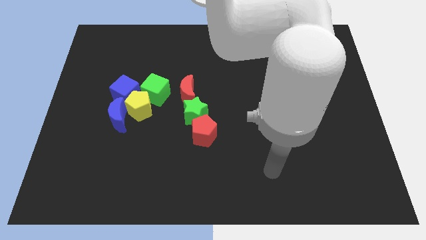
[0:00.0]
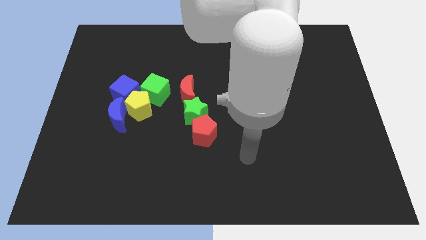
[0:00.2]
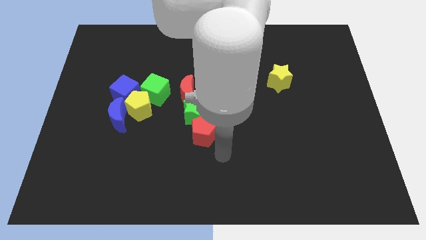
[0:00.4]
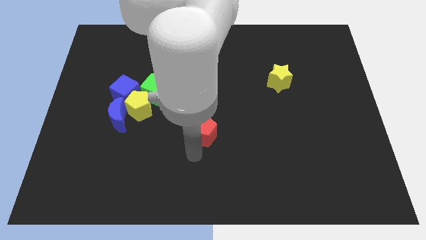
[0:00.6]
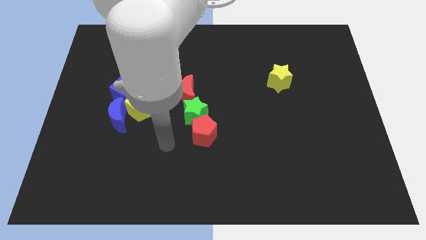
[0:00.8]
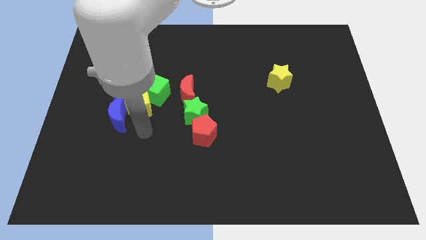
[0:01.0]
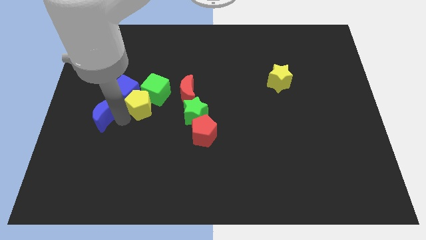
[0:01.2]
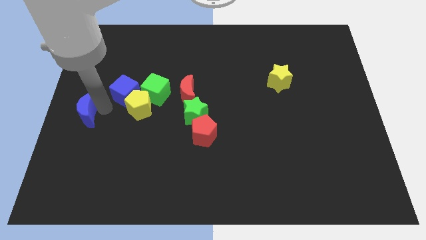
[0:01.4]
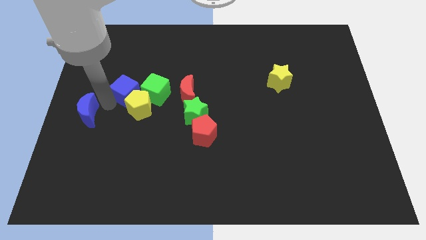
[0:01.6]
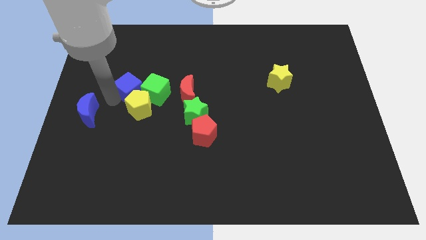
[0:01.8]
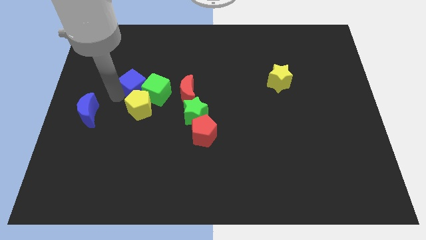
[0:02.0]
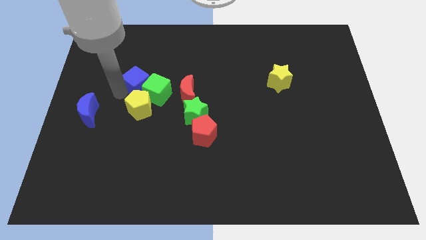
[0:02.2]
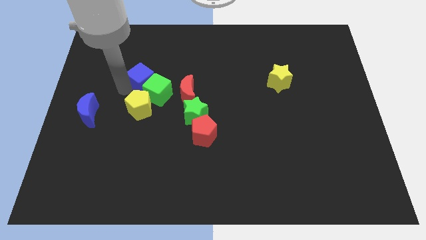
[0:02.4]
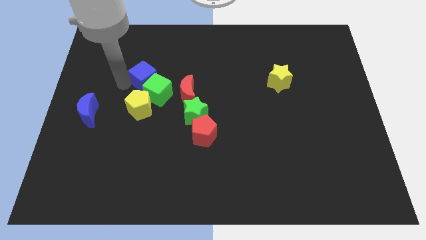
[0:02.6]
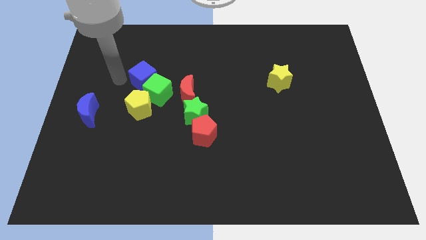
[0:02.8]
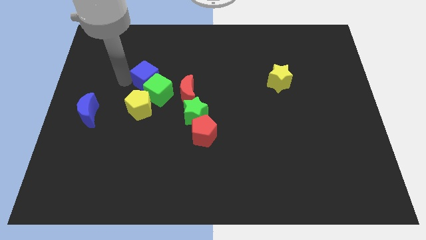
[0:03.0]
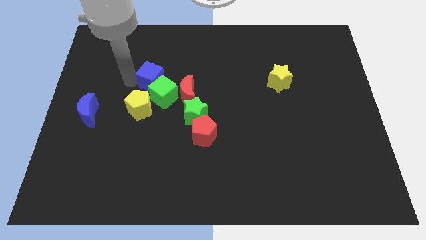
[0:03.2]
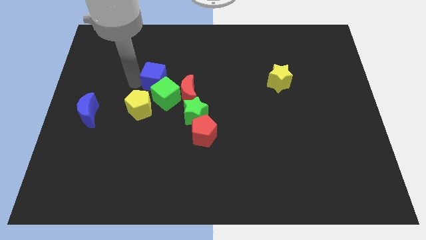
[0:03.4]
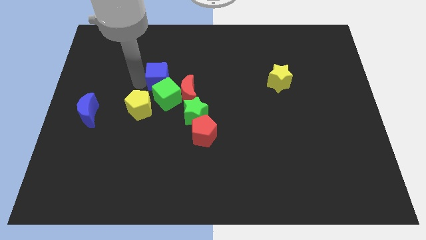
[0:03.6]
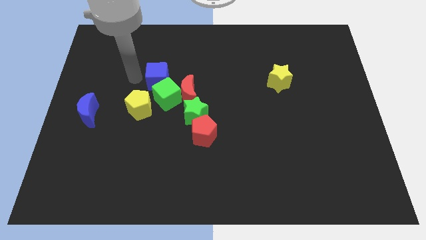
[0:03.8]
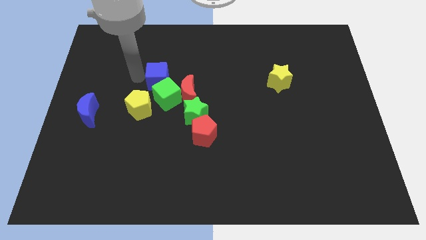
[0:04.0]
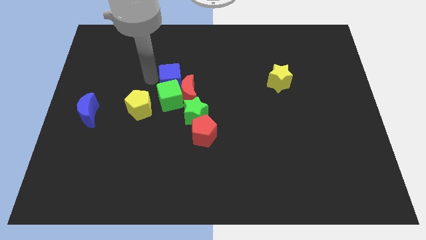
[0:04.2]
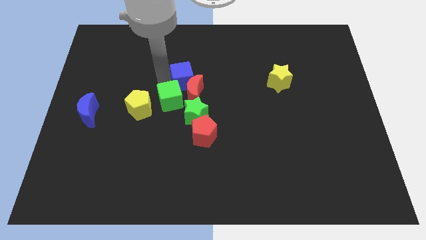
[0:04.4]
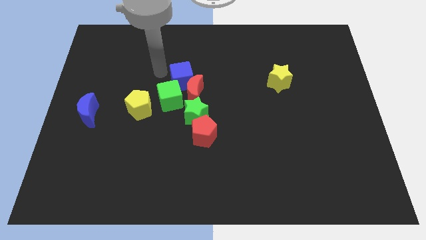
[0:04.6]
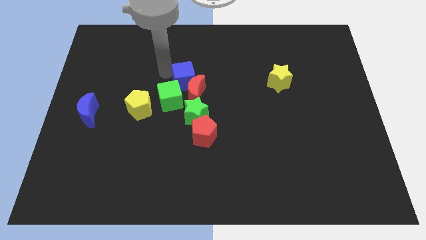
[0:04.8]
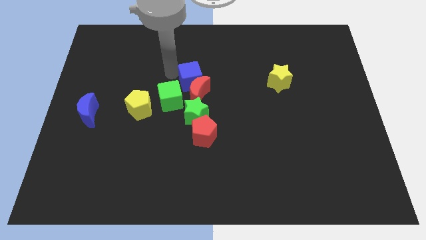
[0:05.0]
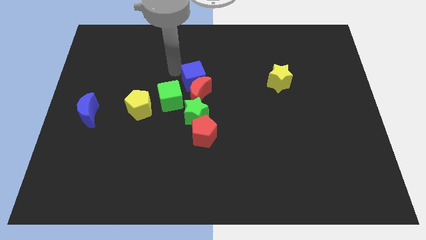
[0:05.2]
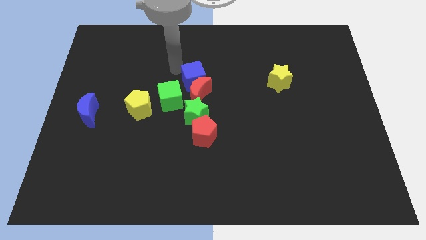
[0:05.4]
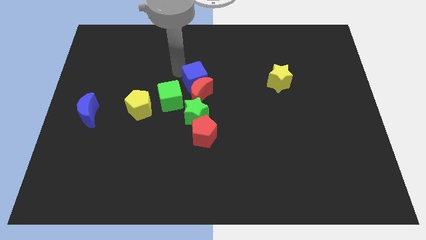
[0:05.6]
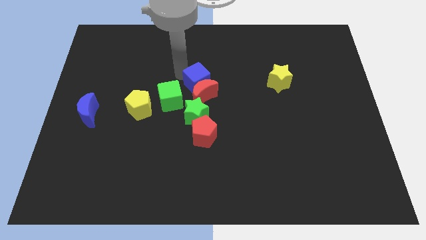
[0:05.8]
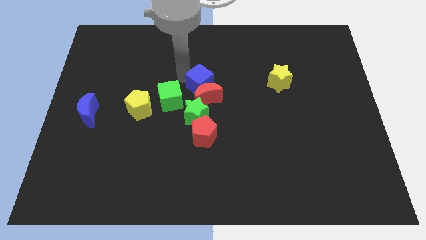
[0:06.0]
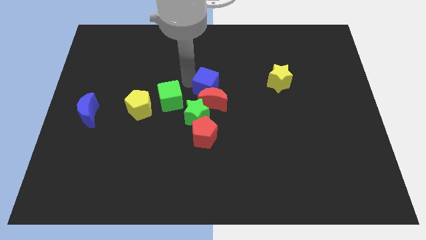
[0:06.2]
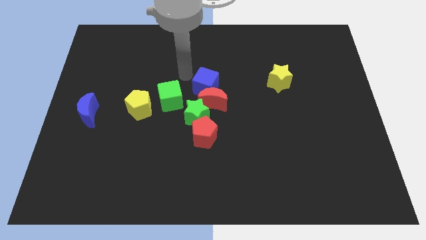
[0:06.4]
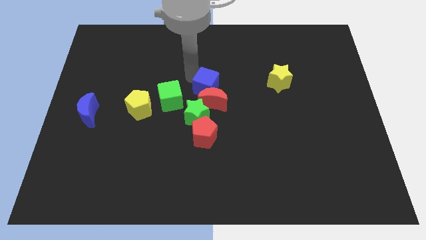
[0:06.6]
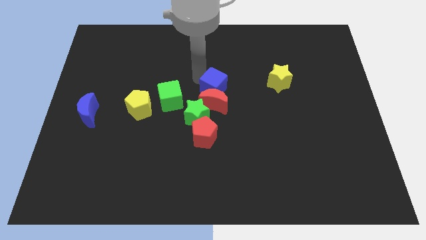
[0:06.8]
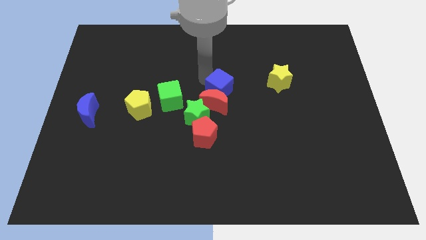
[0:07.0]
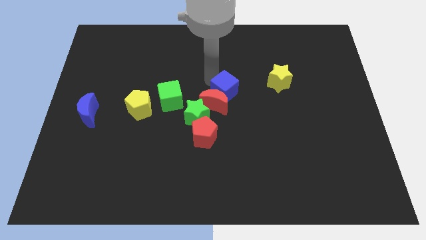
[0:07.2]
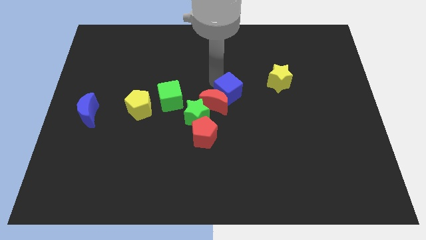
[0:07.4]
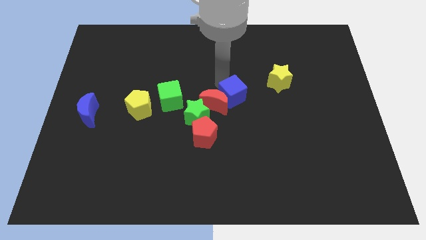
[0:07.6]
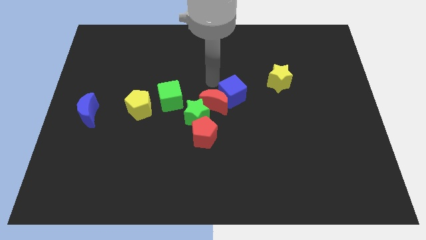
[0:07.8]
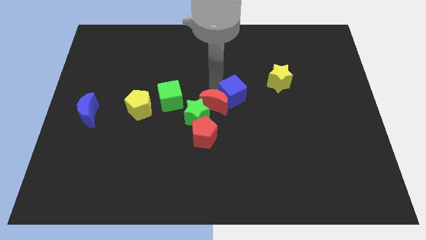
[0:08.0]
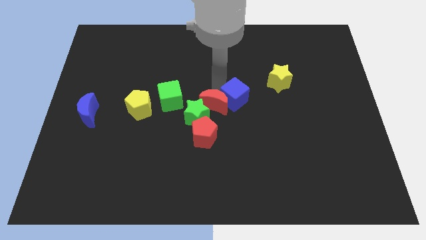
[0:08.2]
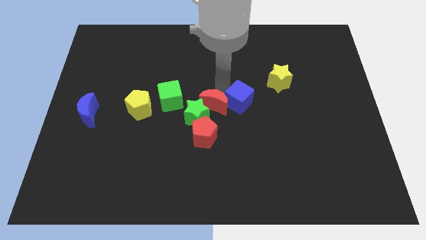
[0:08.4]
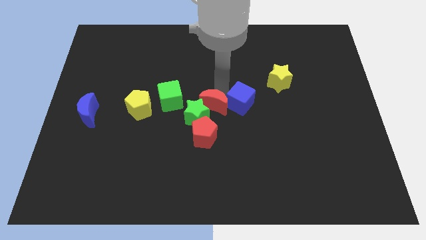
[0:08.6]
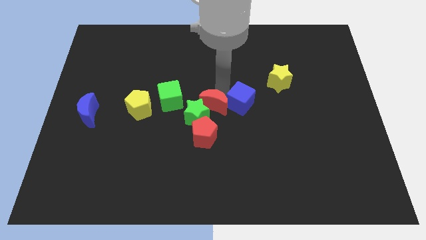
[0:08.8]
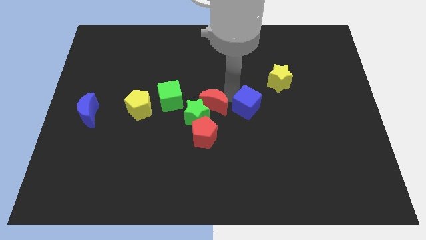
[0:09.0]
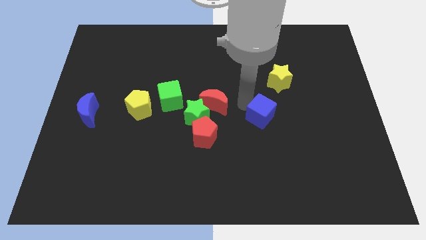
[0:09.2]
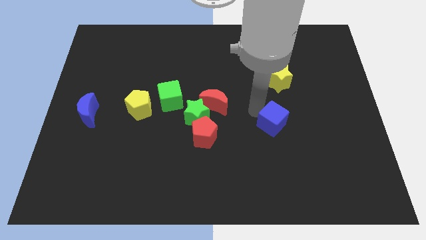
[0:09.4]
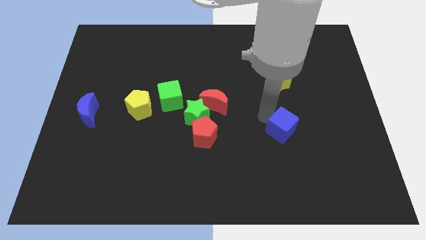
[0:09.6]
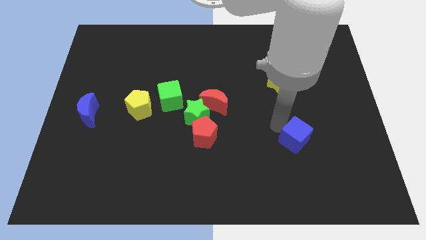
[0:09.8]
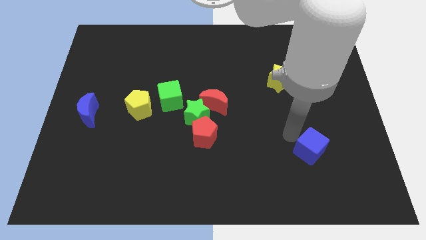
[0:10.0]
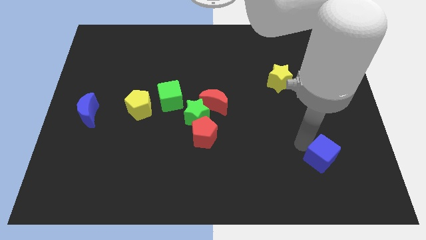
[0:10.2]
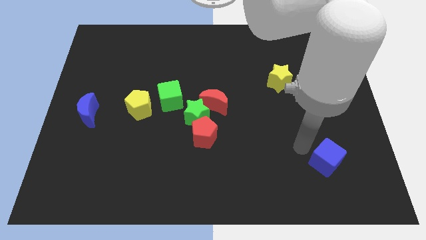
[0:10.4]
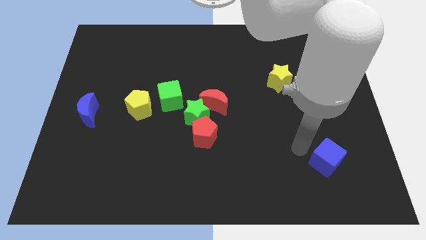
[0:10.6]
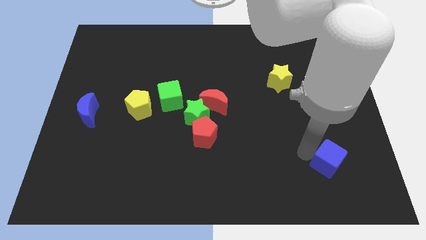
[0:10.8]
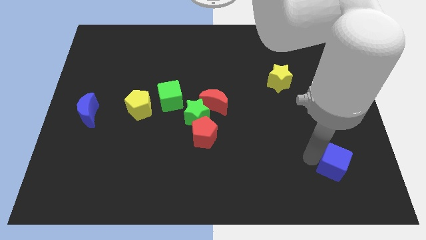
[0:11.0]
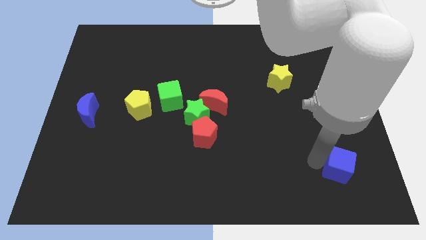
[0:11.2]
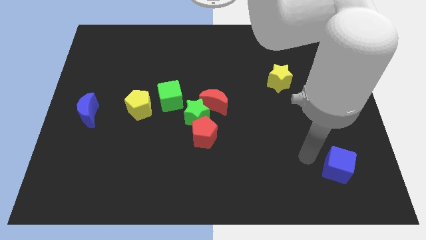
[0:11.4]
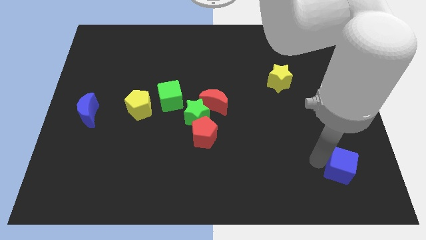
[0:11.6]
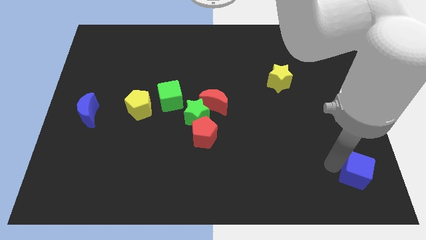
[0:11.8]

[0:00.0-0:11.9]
put the blue cube to the bottom right corner

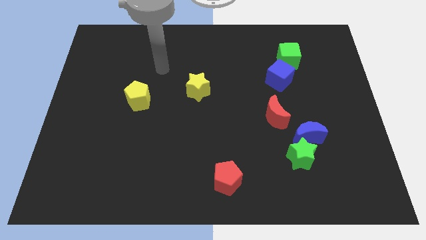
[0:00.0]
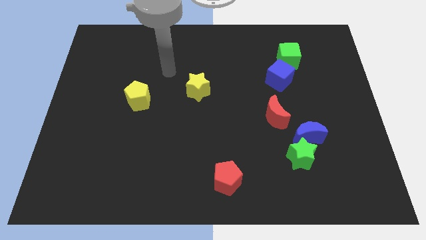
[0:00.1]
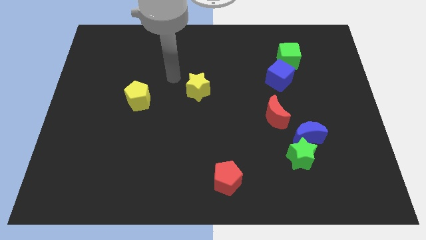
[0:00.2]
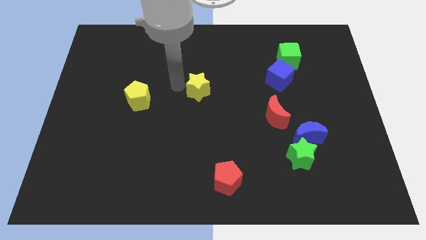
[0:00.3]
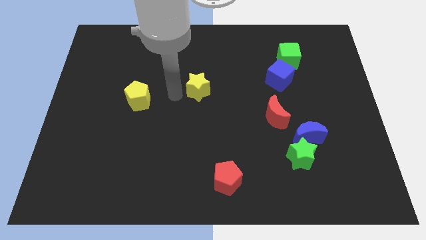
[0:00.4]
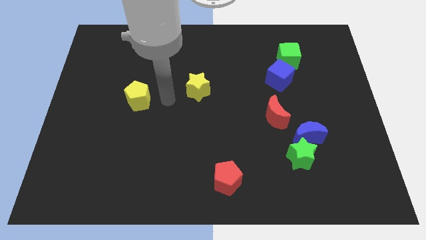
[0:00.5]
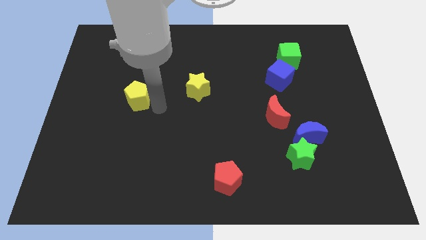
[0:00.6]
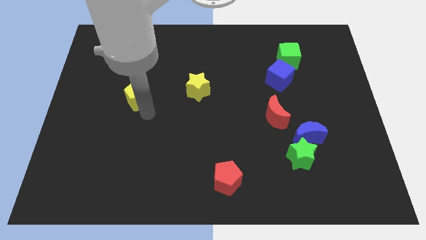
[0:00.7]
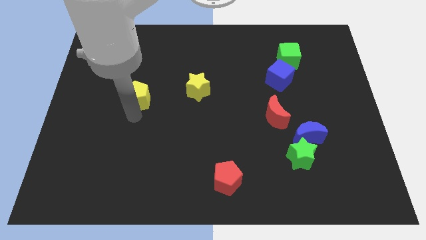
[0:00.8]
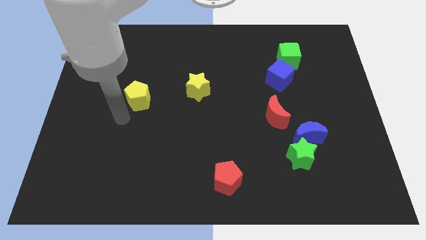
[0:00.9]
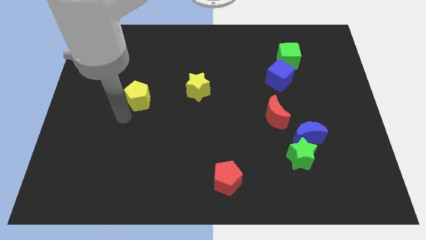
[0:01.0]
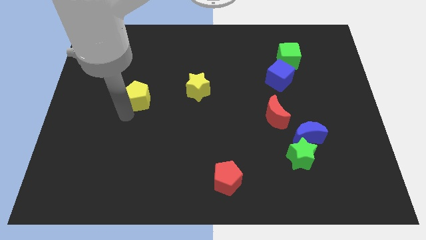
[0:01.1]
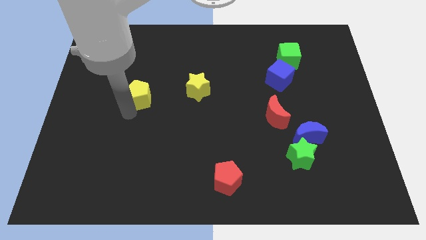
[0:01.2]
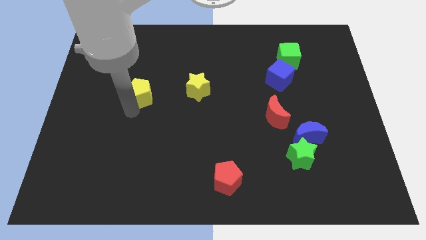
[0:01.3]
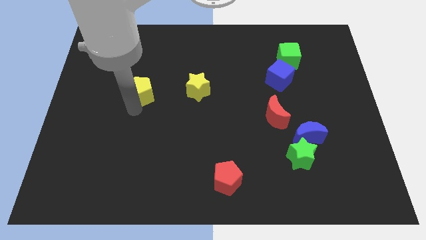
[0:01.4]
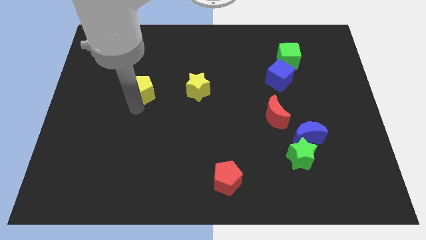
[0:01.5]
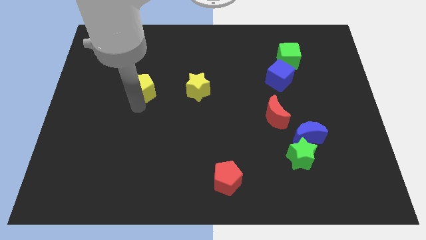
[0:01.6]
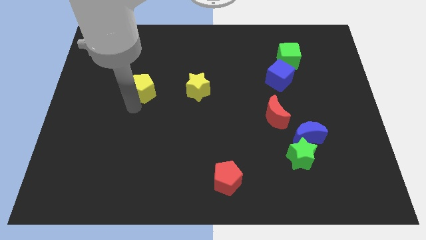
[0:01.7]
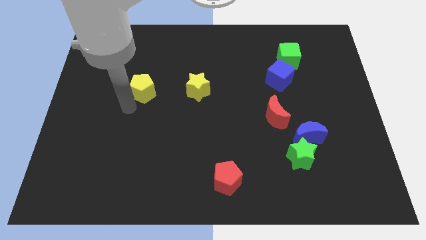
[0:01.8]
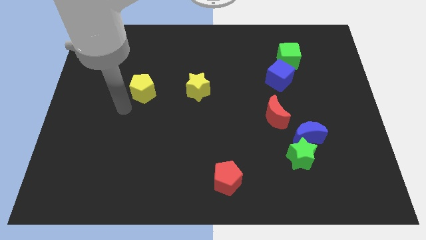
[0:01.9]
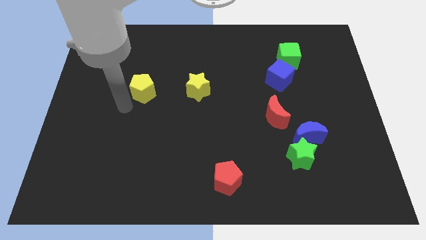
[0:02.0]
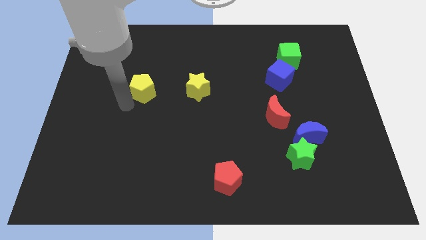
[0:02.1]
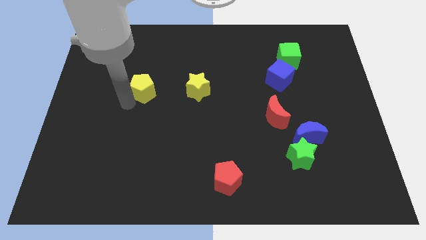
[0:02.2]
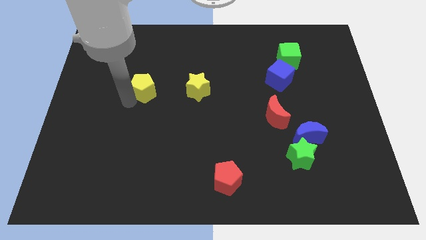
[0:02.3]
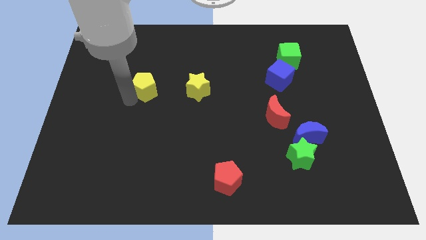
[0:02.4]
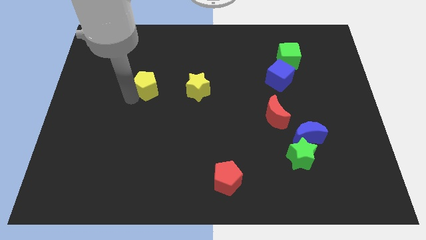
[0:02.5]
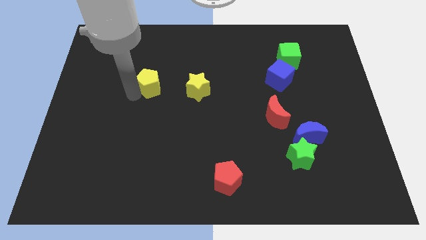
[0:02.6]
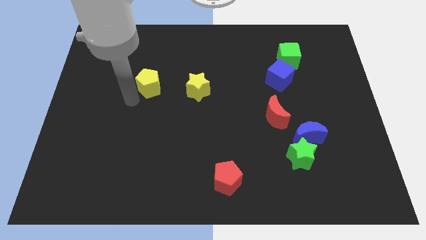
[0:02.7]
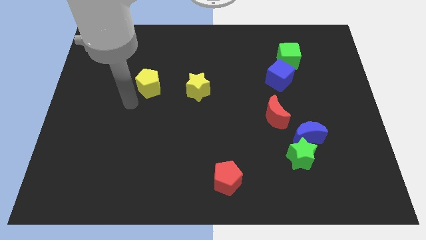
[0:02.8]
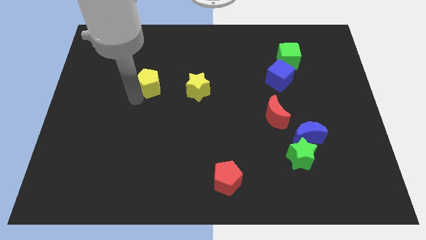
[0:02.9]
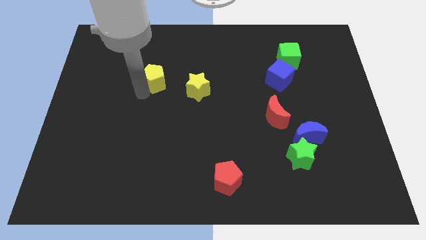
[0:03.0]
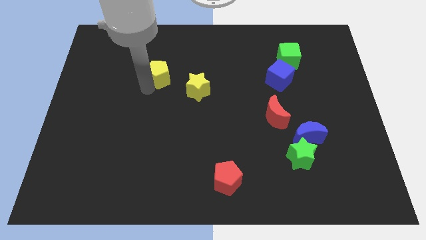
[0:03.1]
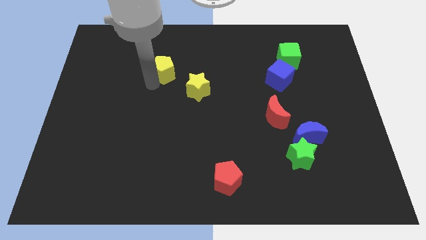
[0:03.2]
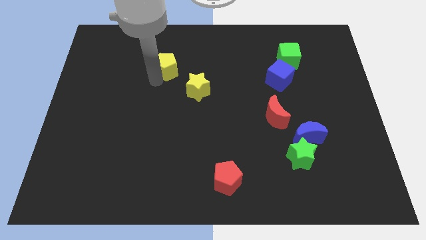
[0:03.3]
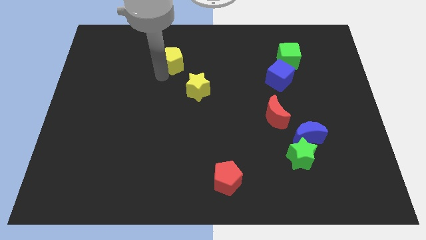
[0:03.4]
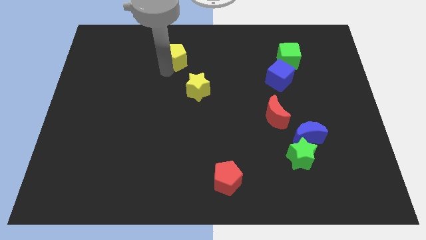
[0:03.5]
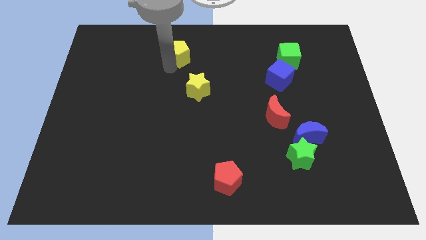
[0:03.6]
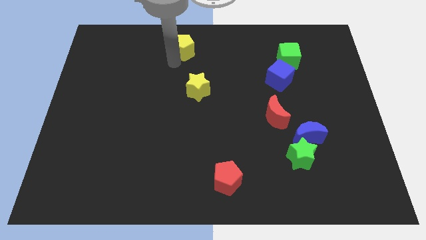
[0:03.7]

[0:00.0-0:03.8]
push the yellow pentagon to the top
